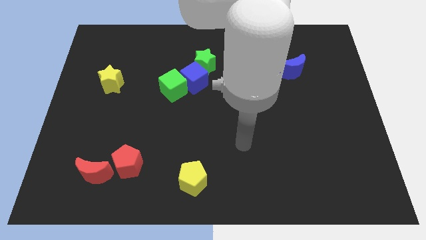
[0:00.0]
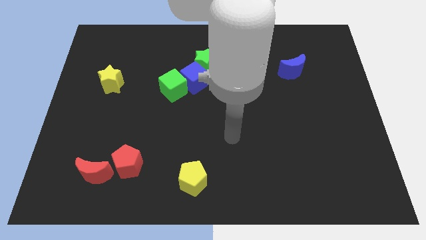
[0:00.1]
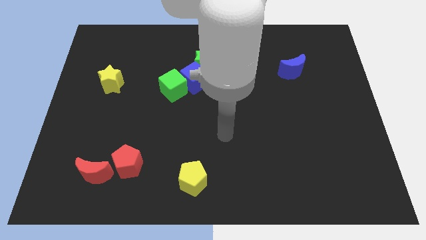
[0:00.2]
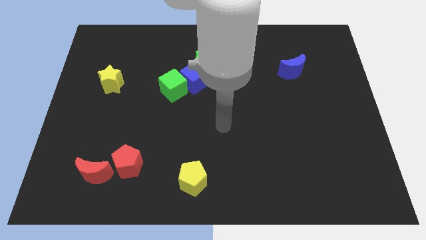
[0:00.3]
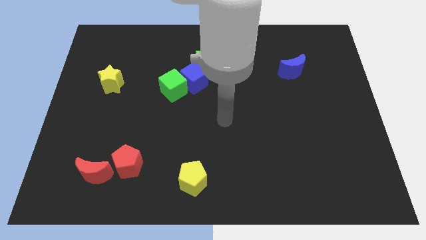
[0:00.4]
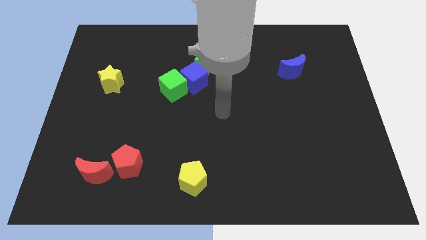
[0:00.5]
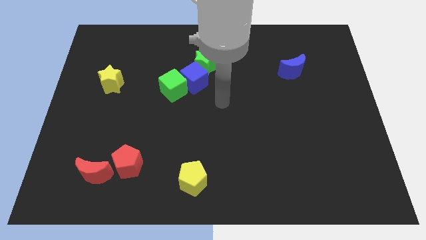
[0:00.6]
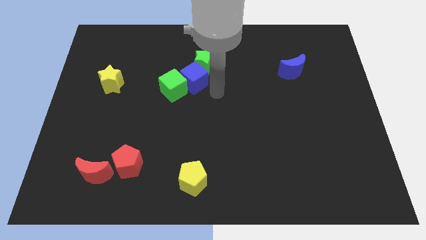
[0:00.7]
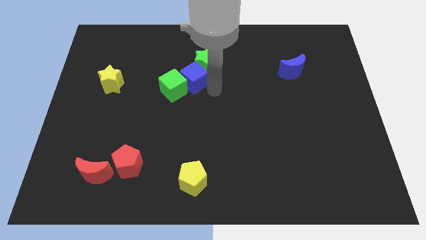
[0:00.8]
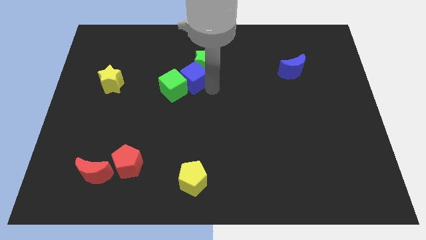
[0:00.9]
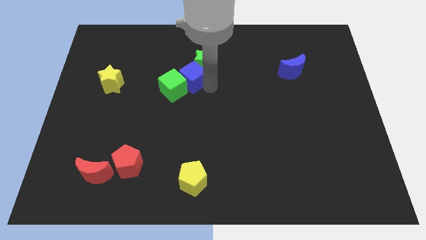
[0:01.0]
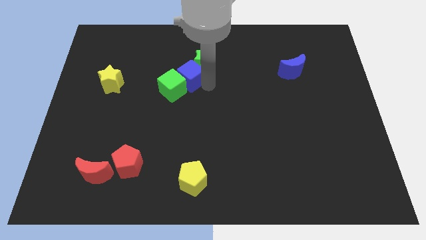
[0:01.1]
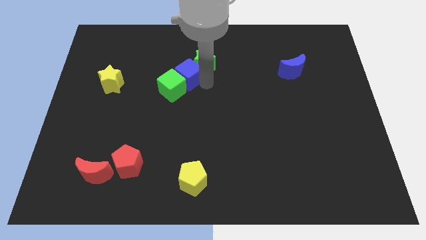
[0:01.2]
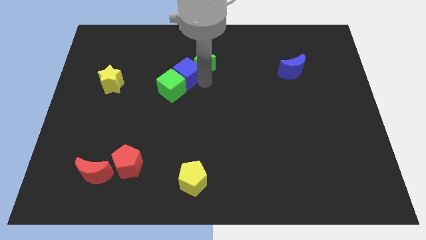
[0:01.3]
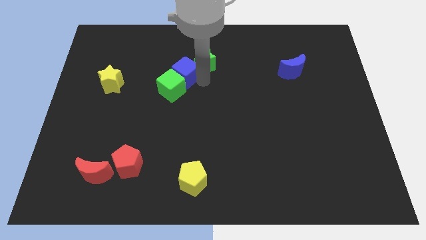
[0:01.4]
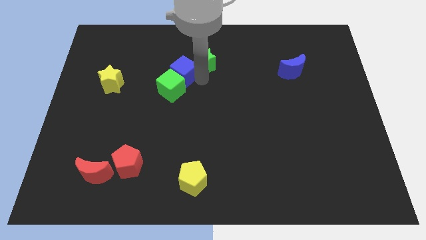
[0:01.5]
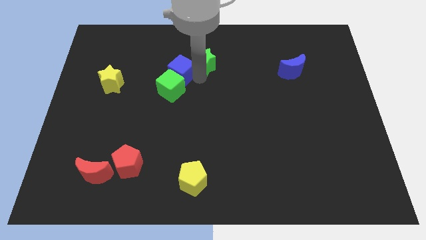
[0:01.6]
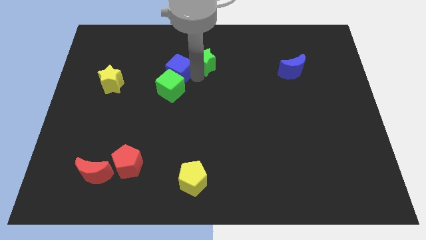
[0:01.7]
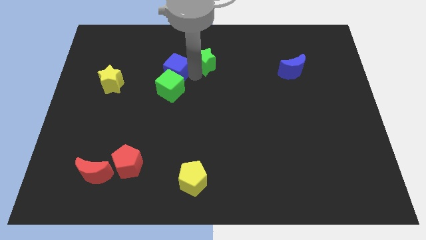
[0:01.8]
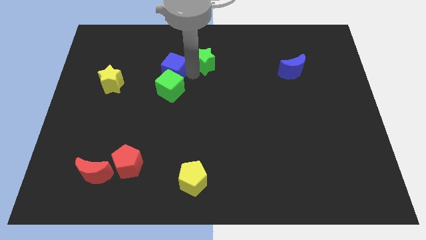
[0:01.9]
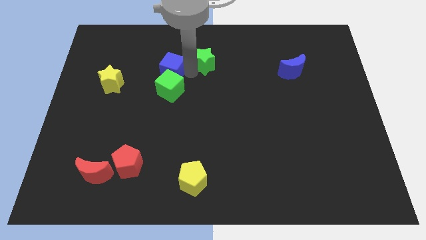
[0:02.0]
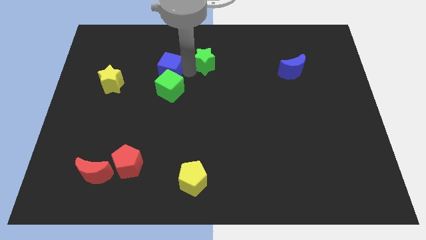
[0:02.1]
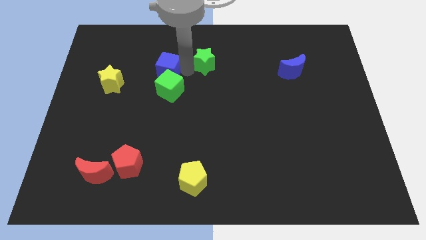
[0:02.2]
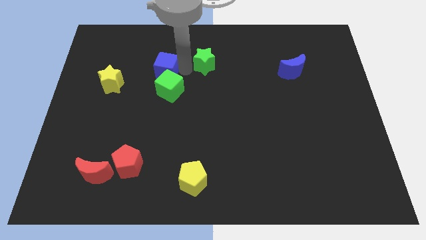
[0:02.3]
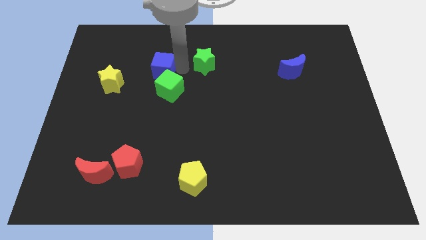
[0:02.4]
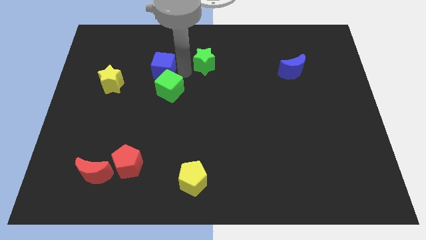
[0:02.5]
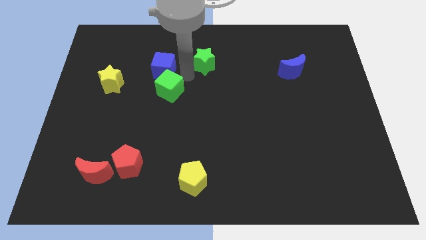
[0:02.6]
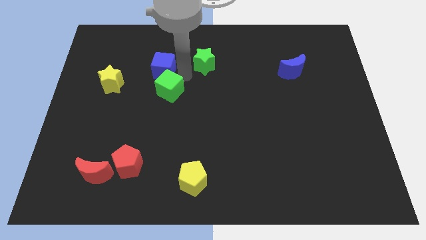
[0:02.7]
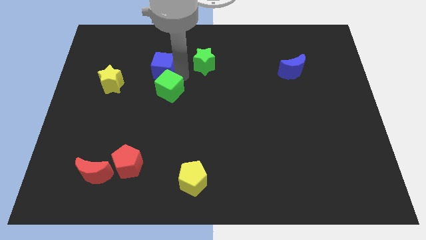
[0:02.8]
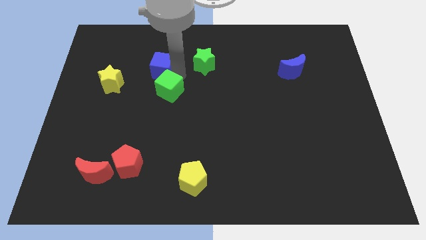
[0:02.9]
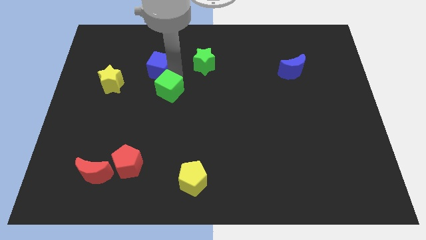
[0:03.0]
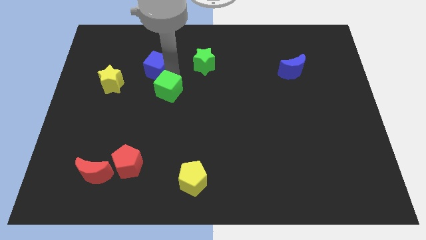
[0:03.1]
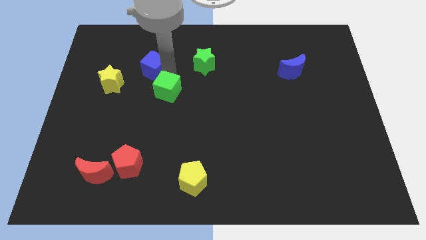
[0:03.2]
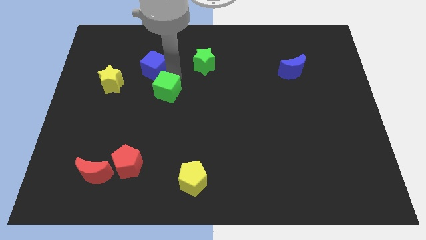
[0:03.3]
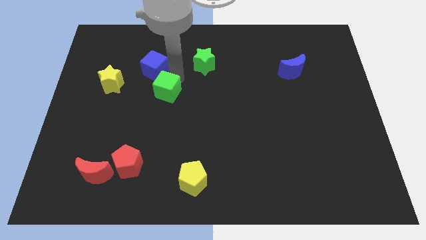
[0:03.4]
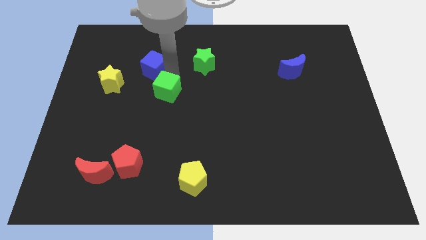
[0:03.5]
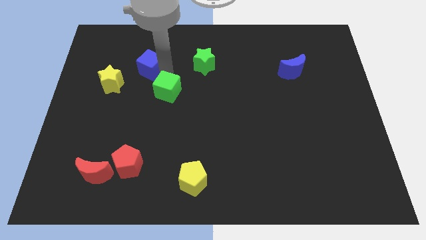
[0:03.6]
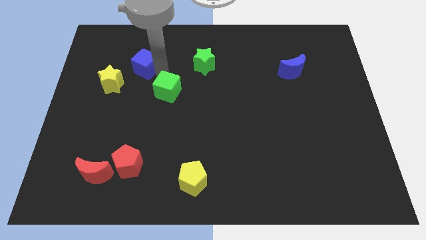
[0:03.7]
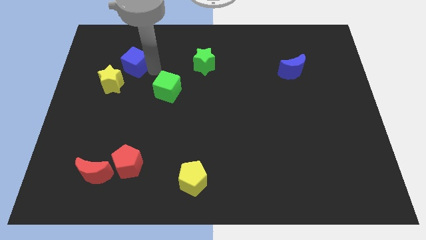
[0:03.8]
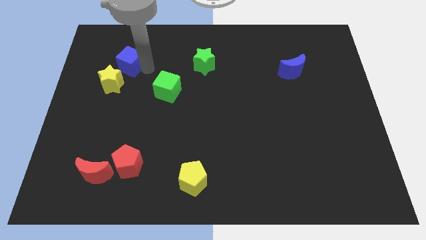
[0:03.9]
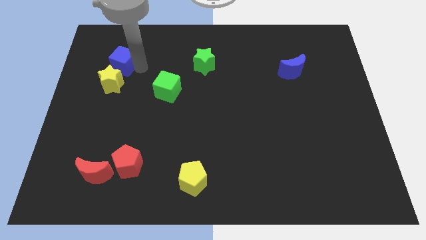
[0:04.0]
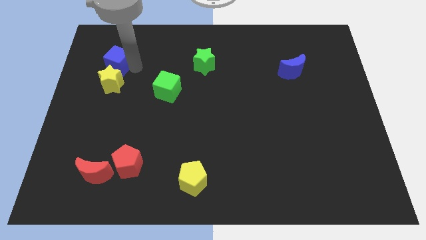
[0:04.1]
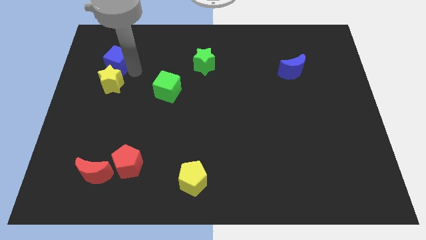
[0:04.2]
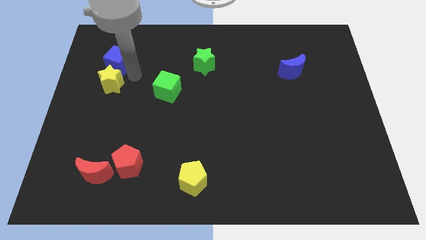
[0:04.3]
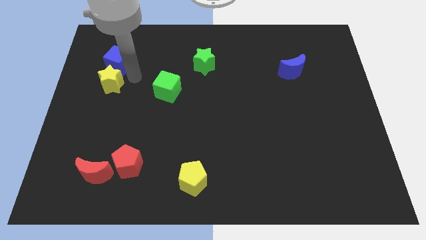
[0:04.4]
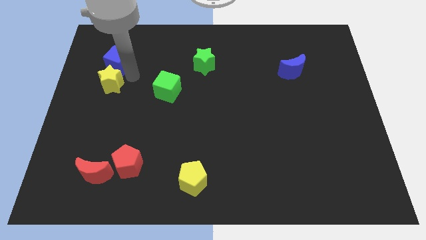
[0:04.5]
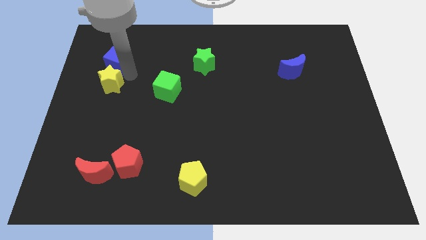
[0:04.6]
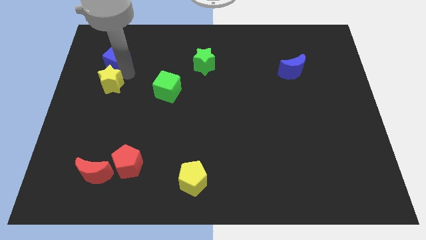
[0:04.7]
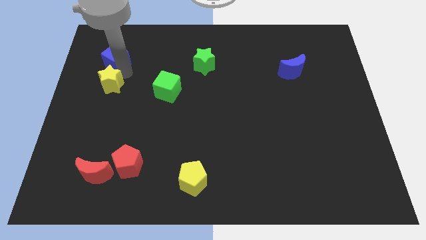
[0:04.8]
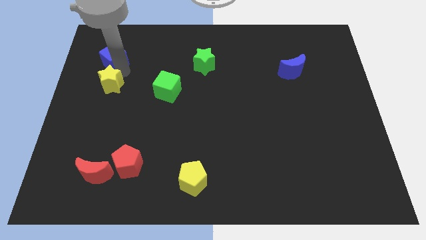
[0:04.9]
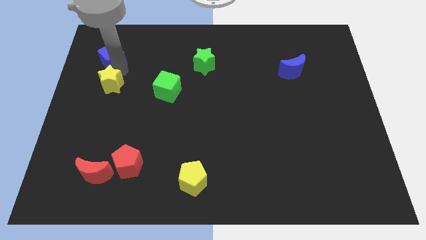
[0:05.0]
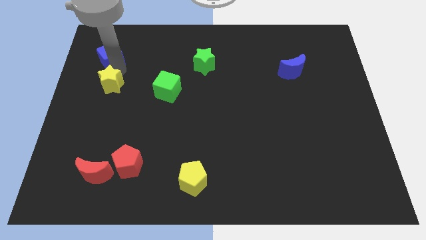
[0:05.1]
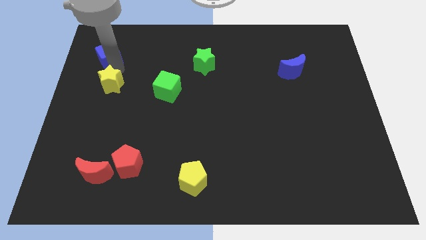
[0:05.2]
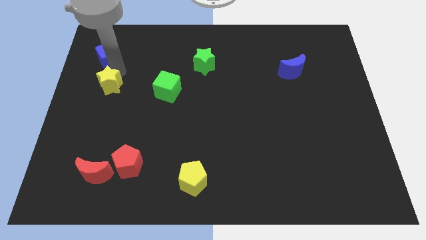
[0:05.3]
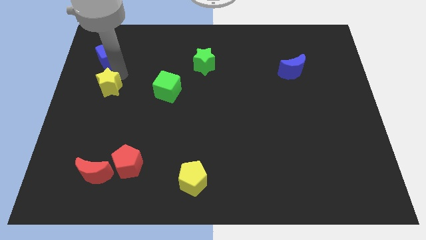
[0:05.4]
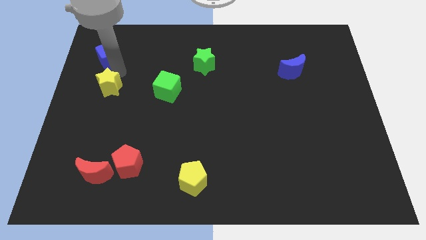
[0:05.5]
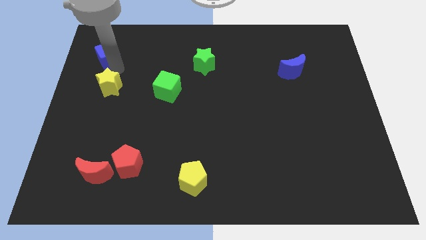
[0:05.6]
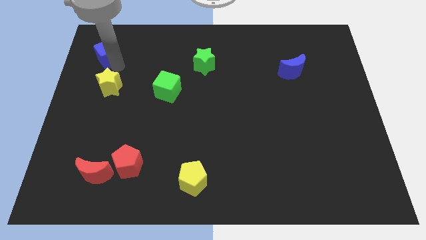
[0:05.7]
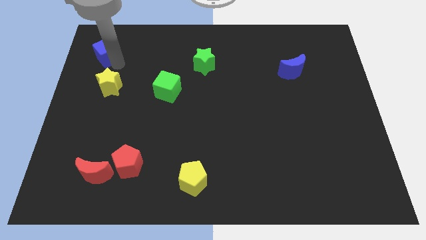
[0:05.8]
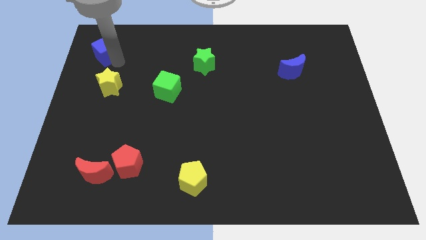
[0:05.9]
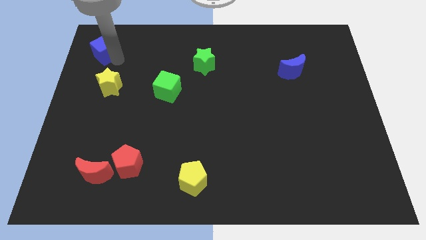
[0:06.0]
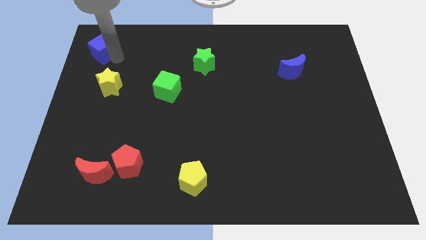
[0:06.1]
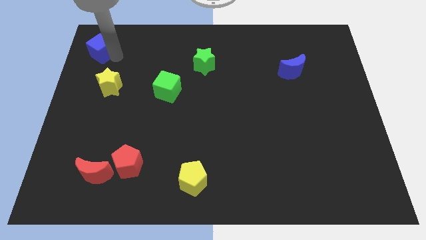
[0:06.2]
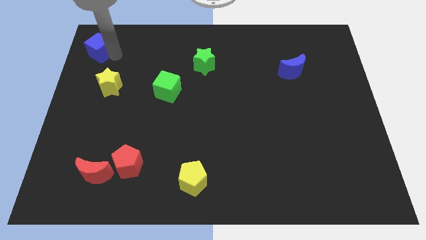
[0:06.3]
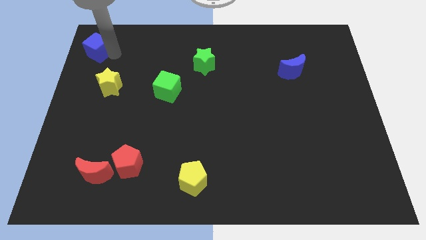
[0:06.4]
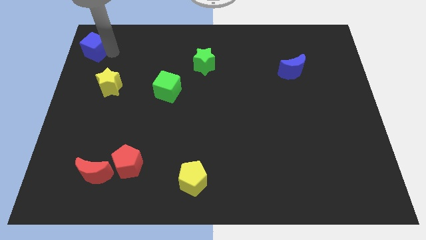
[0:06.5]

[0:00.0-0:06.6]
put the blue cube to the top left of the board
